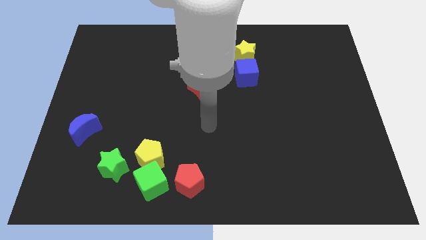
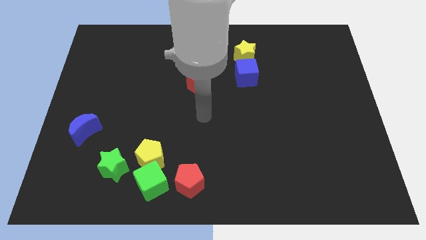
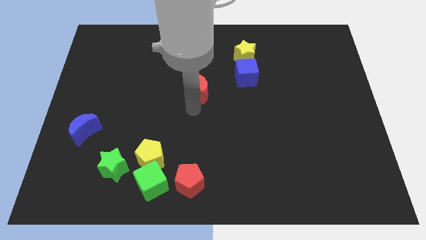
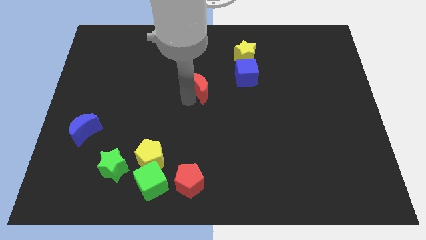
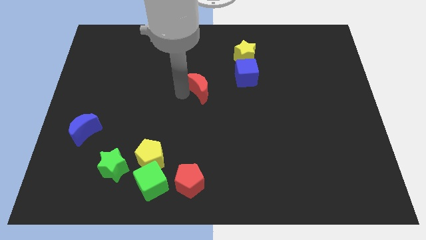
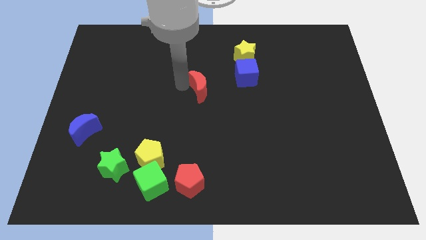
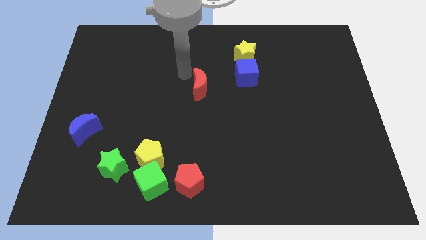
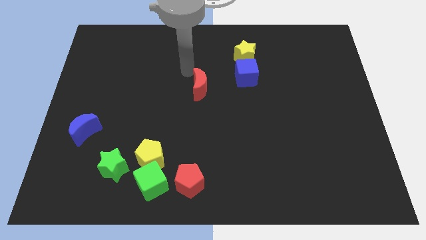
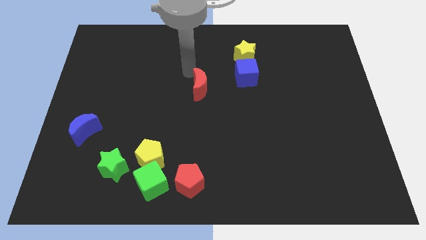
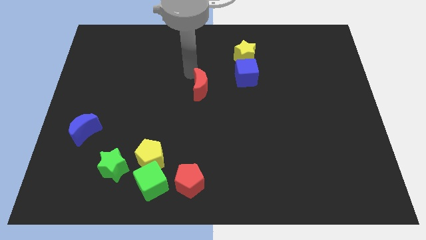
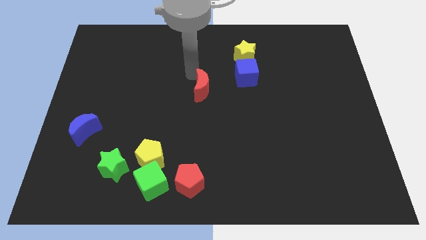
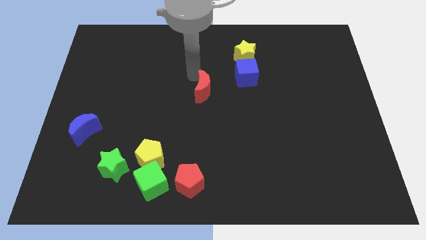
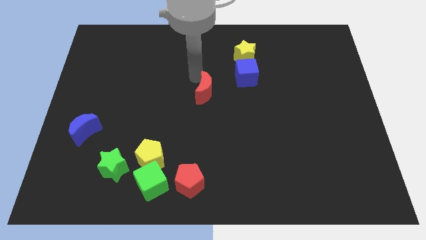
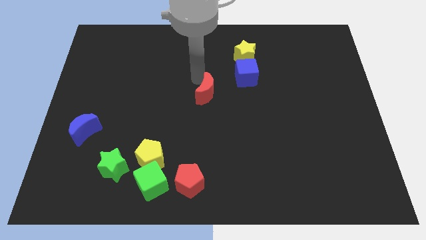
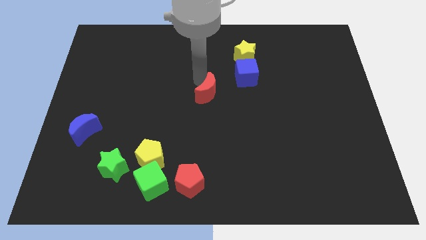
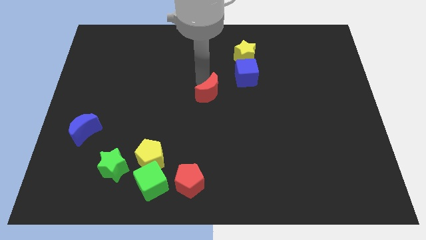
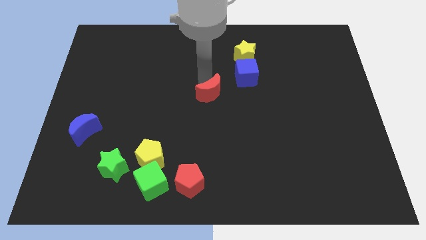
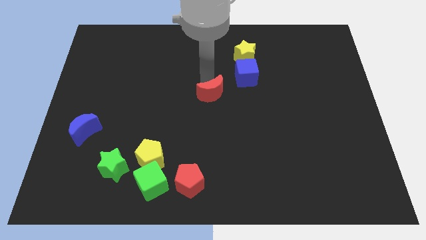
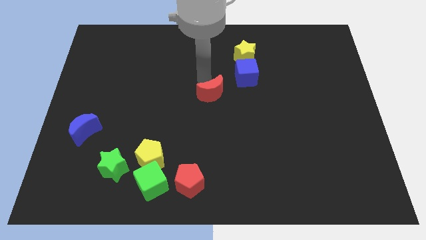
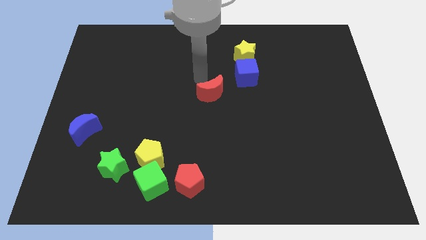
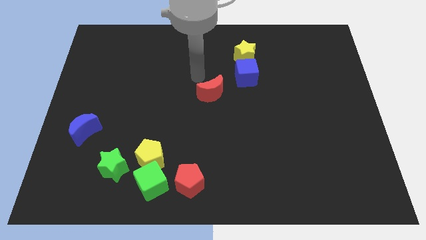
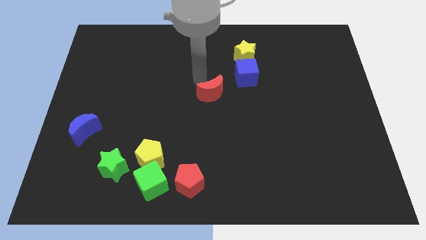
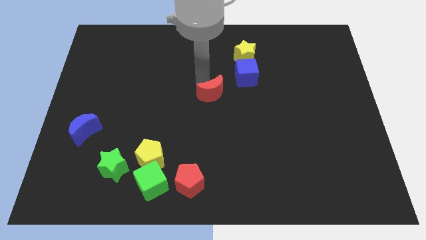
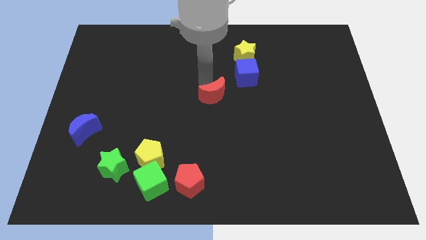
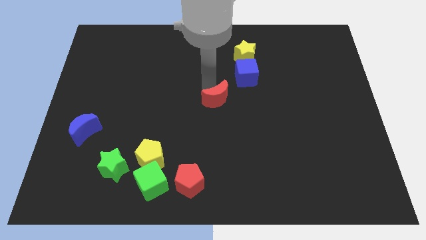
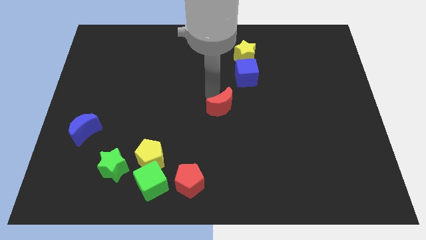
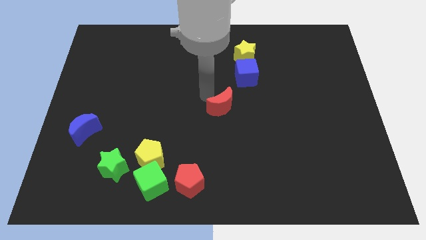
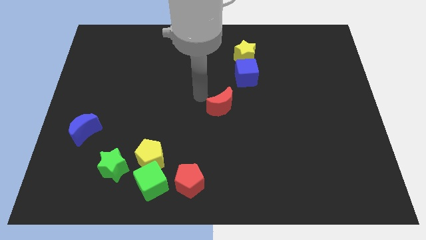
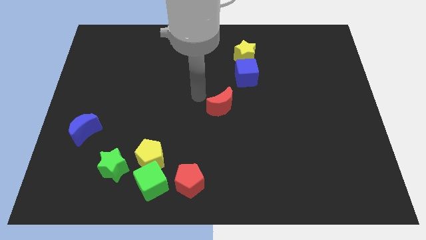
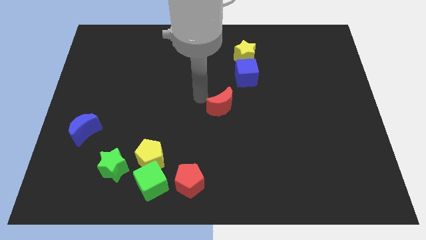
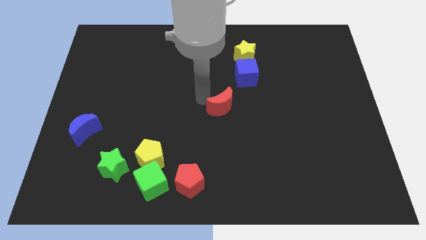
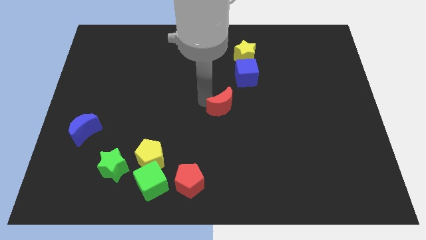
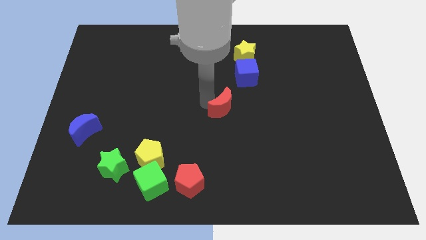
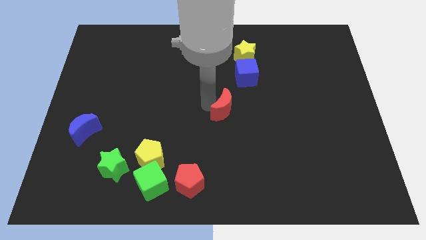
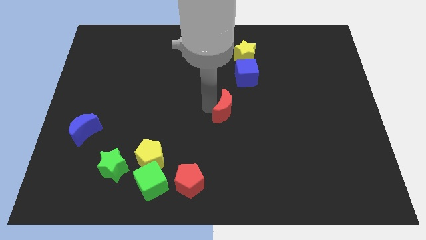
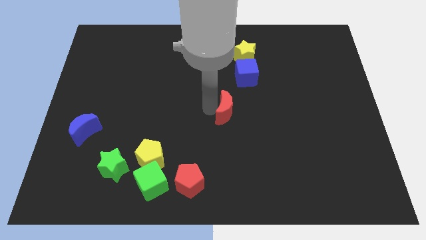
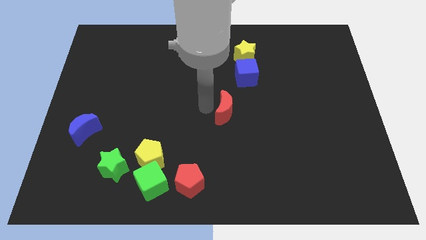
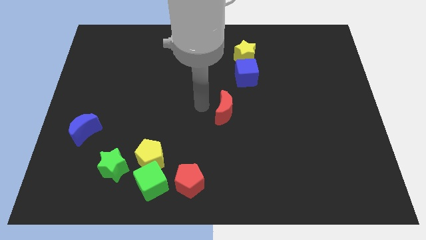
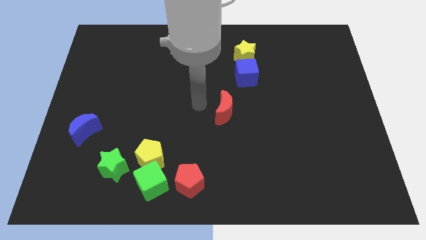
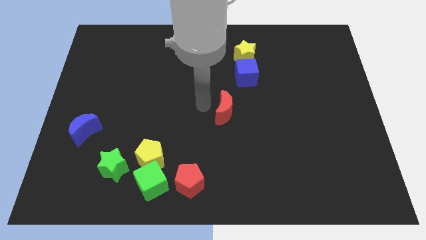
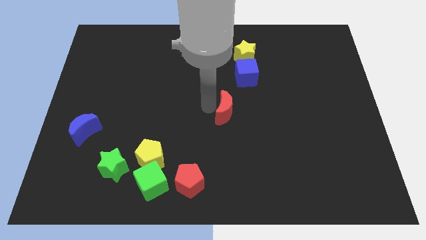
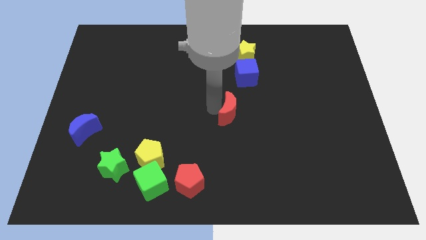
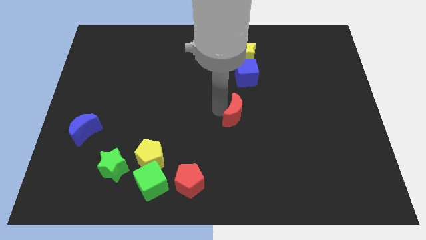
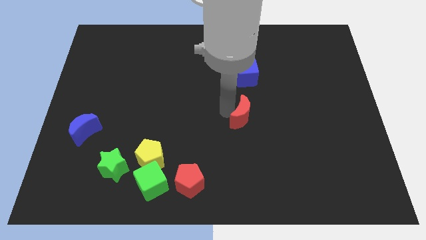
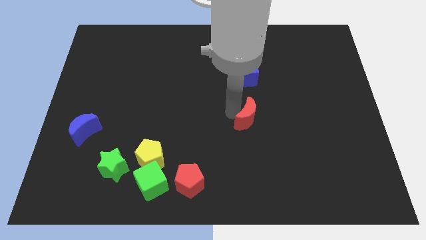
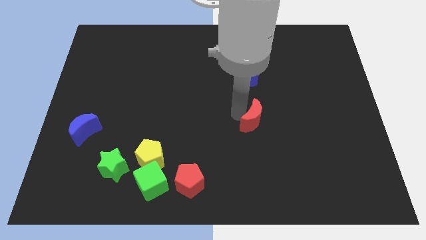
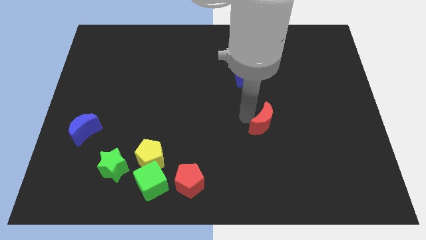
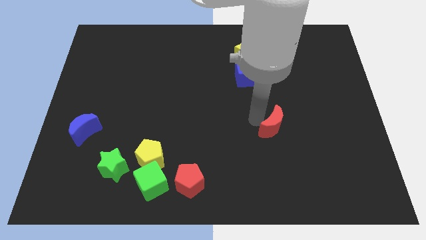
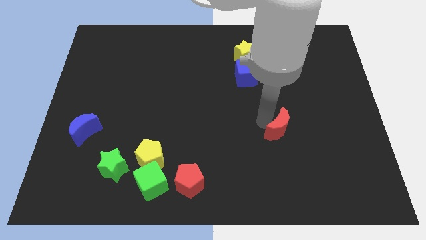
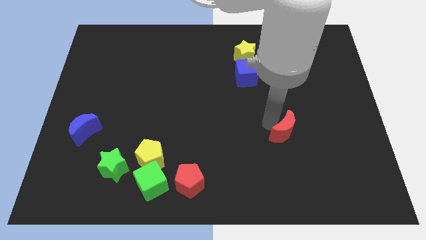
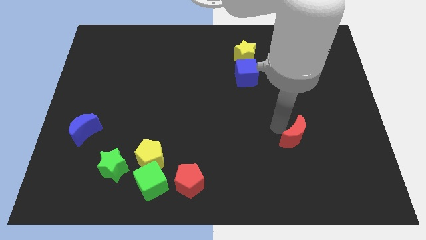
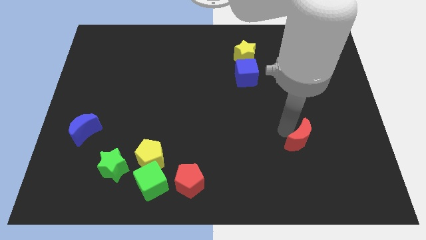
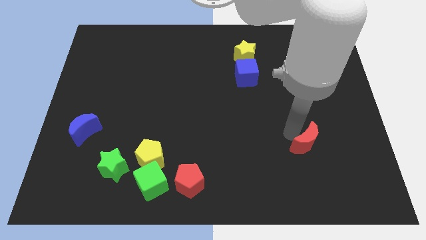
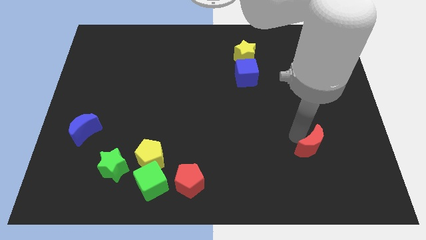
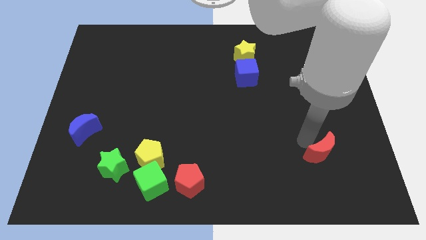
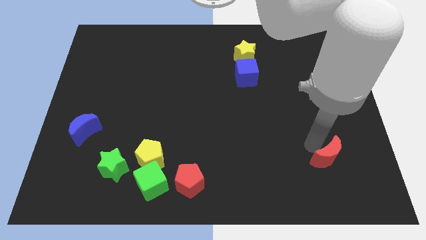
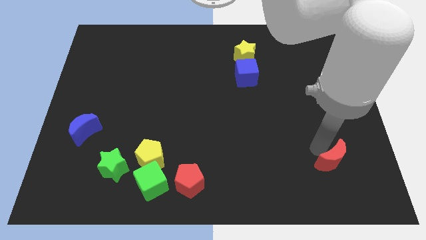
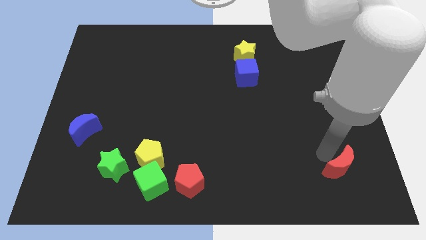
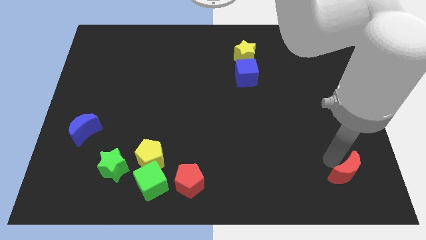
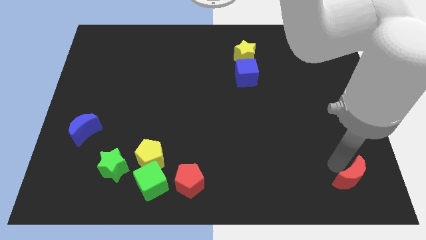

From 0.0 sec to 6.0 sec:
slide the red moon to the bottom right

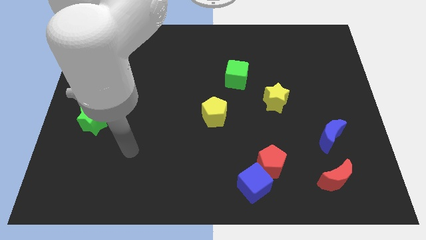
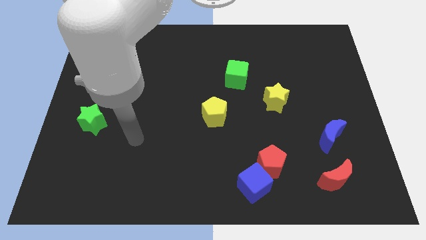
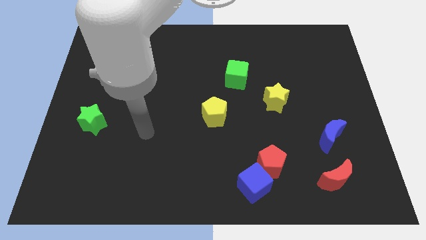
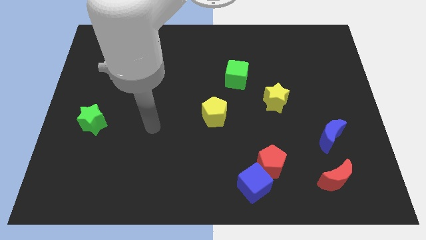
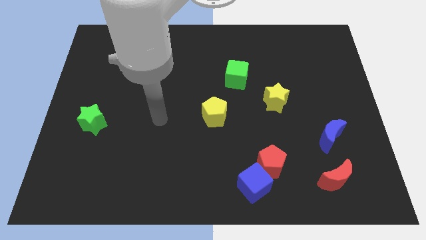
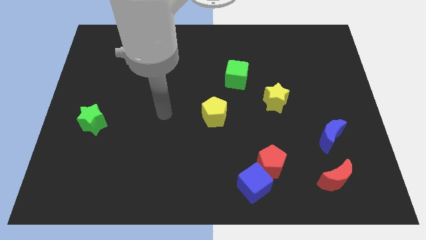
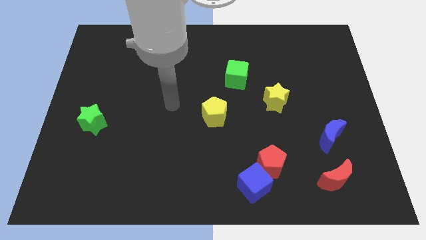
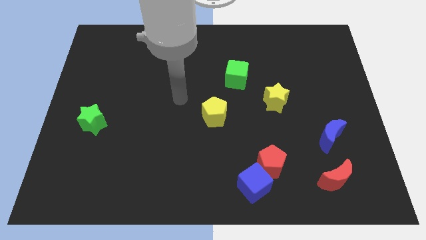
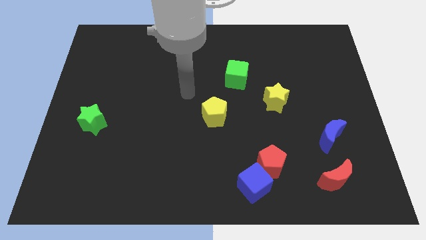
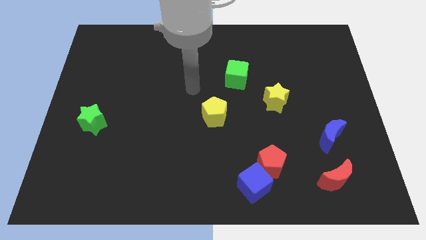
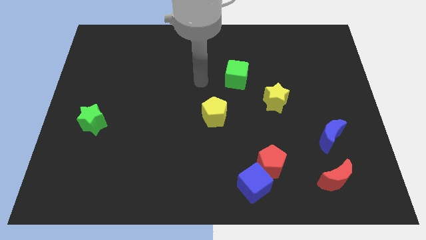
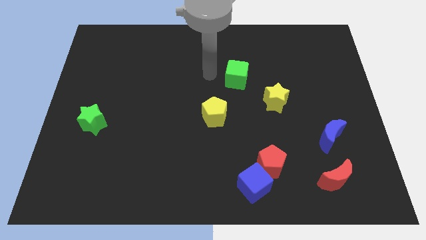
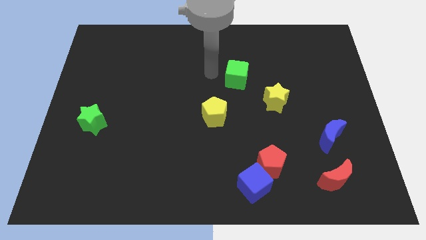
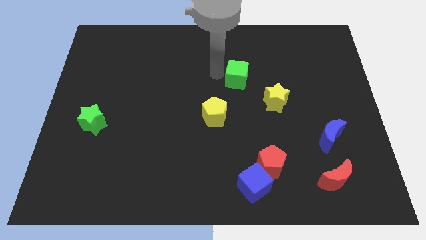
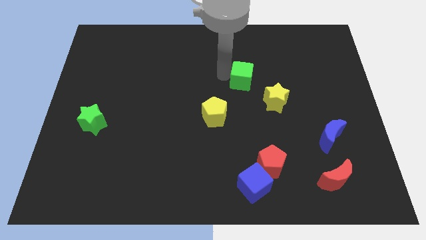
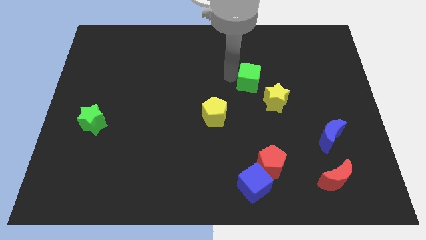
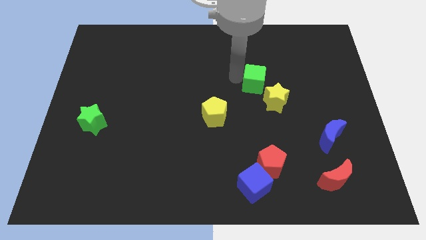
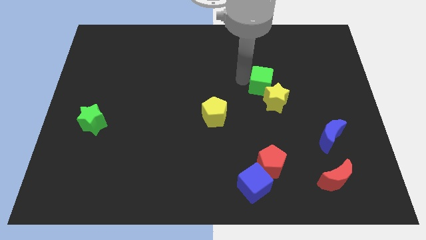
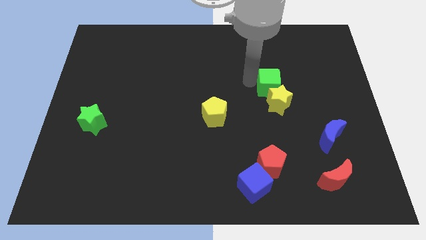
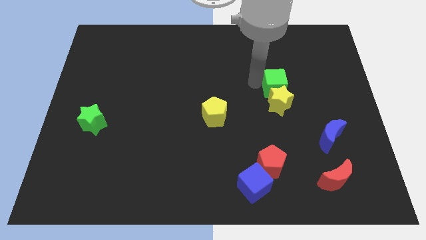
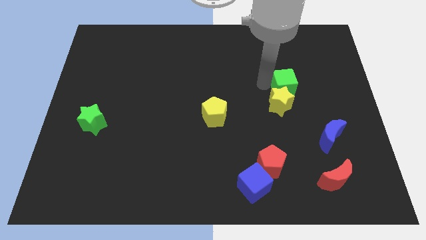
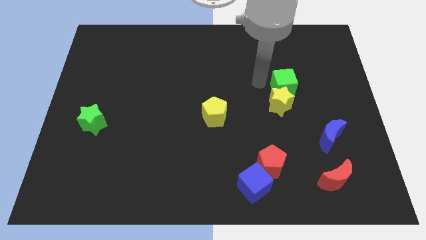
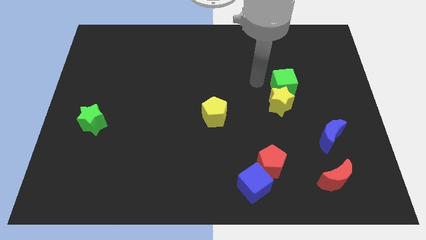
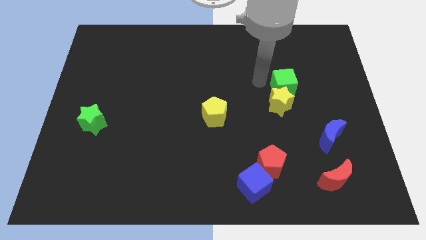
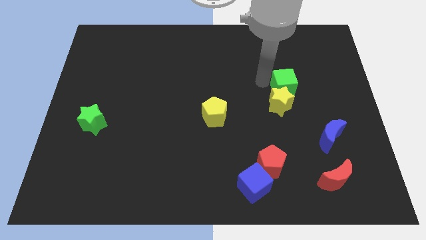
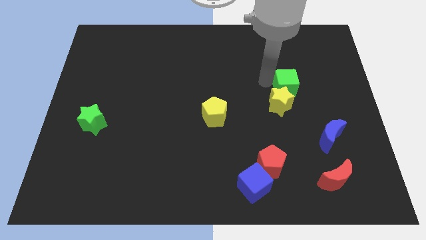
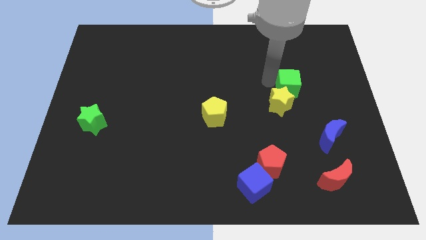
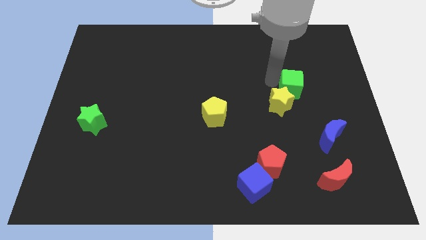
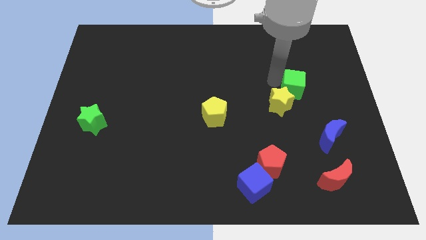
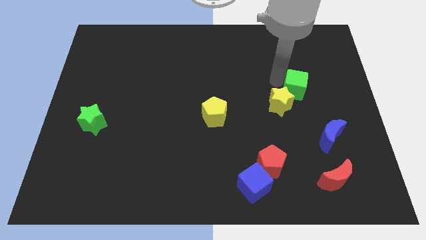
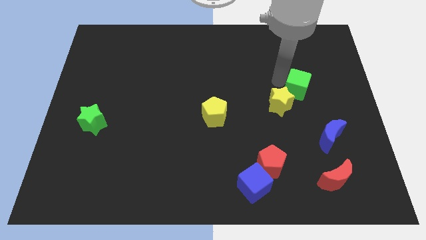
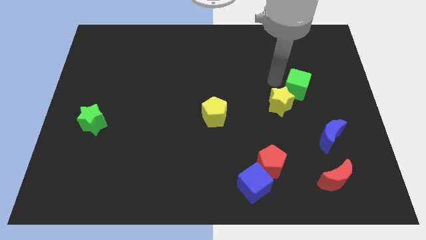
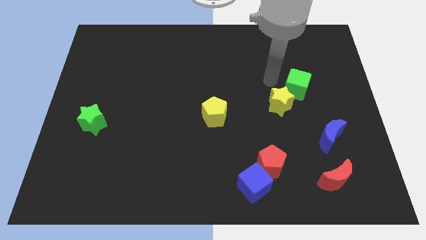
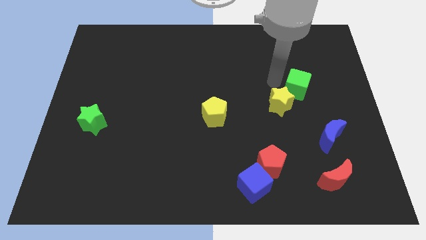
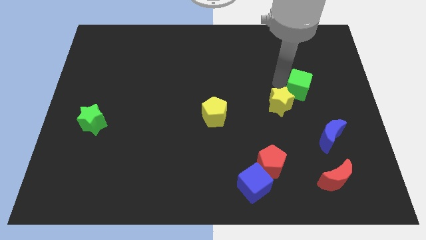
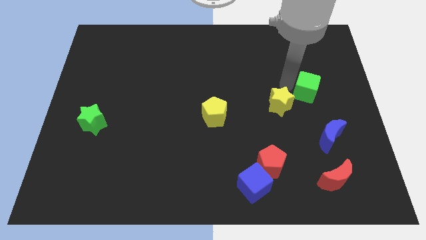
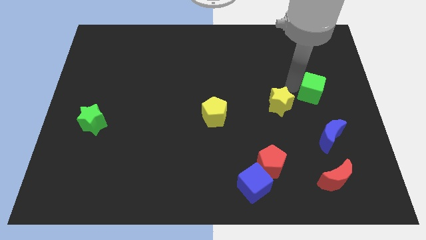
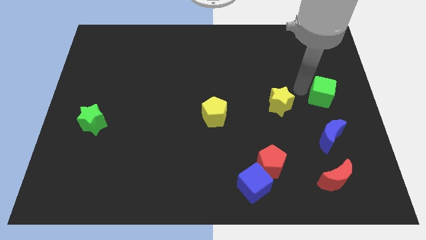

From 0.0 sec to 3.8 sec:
push the green cube to the center right
